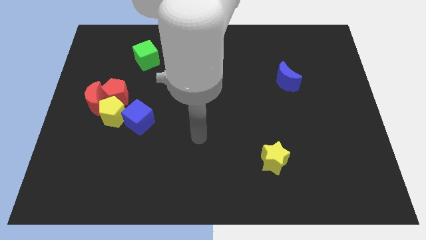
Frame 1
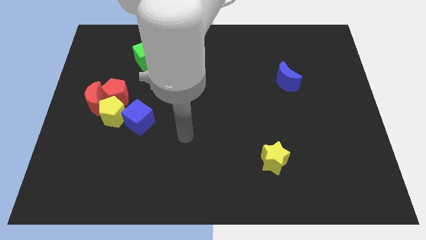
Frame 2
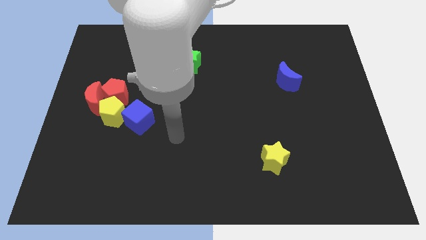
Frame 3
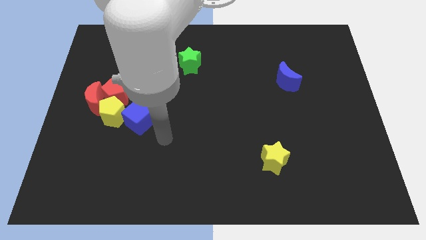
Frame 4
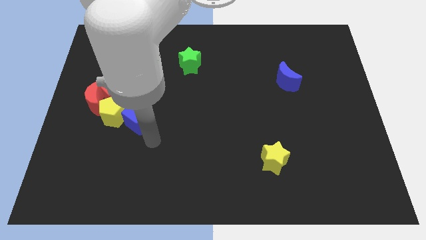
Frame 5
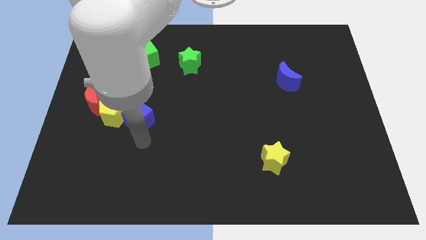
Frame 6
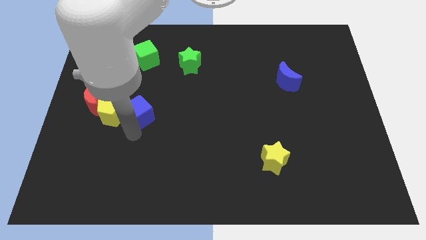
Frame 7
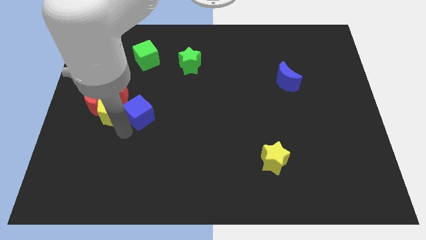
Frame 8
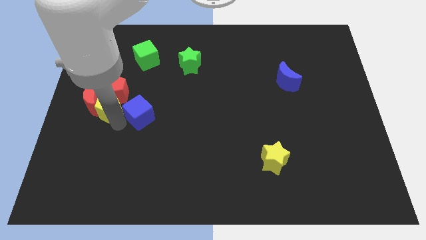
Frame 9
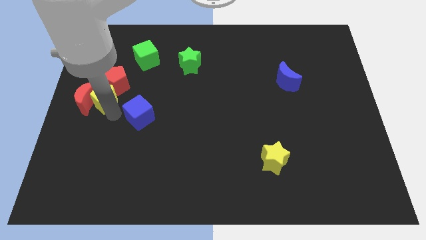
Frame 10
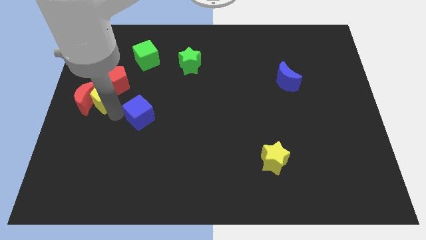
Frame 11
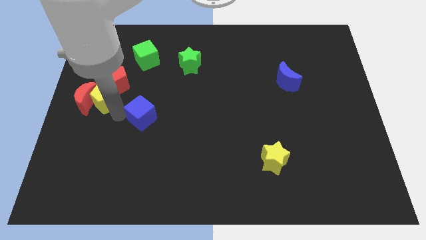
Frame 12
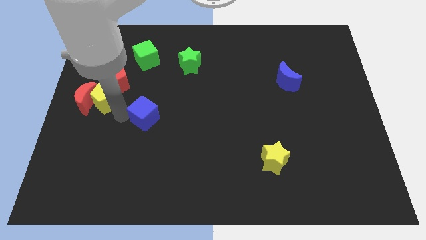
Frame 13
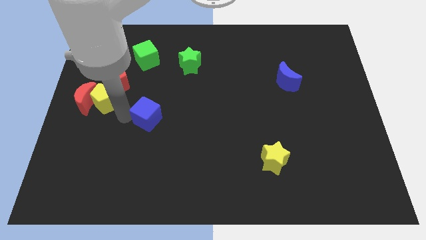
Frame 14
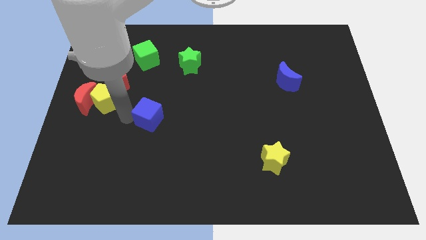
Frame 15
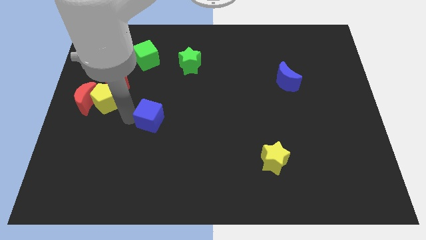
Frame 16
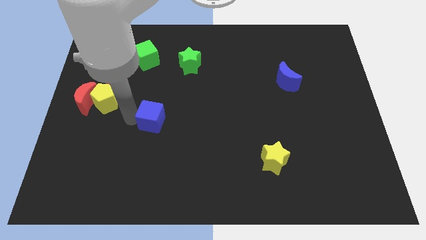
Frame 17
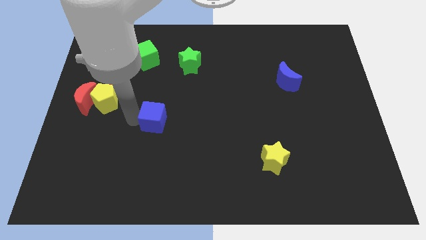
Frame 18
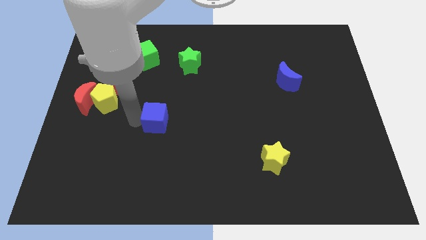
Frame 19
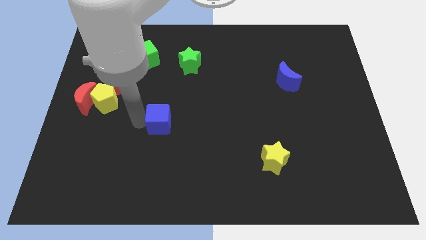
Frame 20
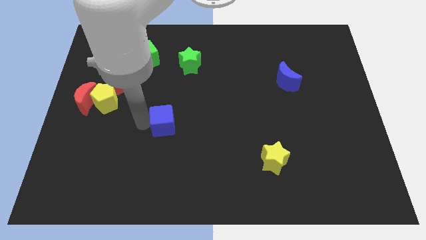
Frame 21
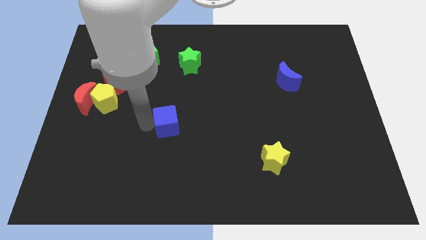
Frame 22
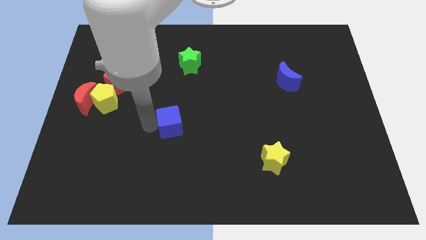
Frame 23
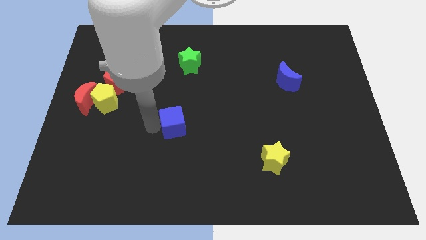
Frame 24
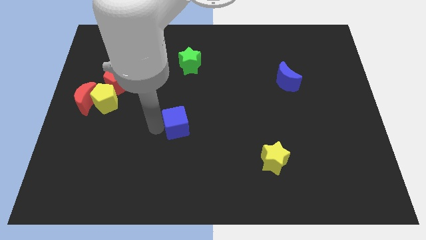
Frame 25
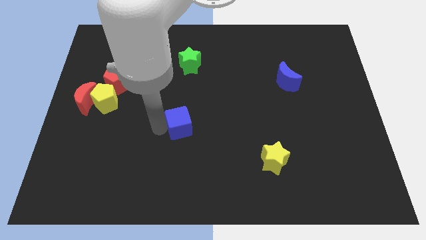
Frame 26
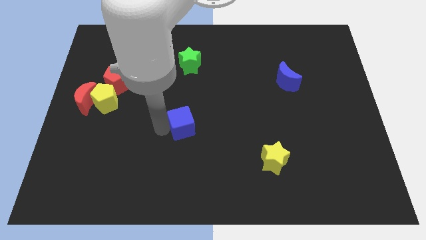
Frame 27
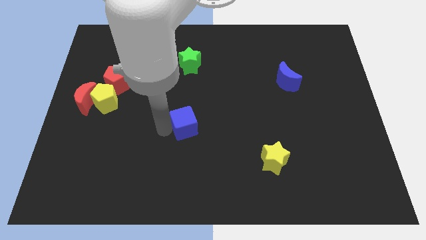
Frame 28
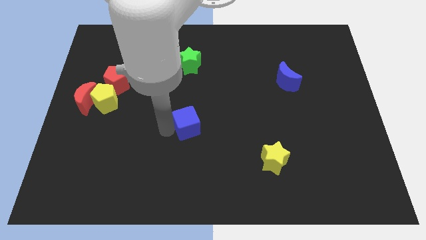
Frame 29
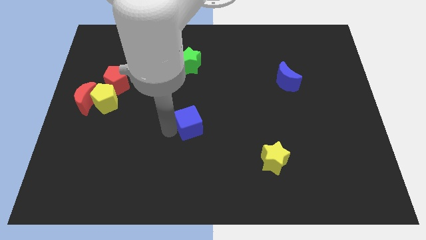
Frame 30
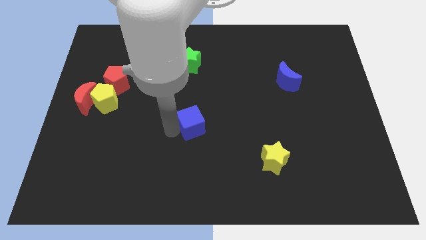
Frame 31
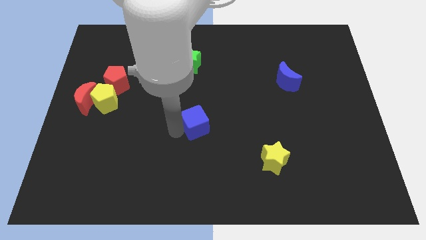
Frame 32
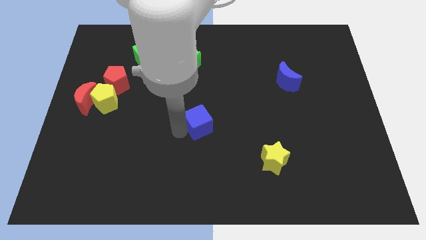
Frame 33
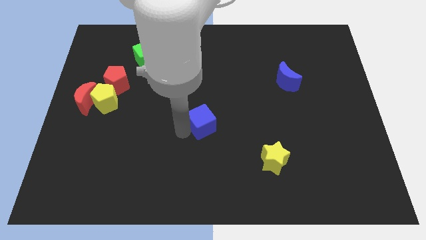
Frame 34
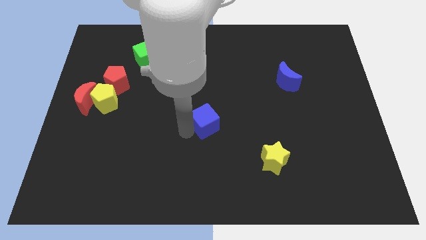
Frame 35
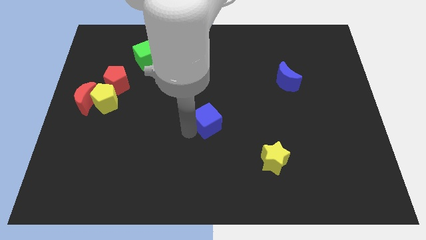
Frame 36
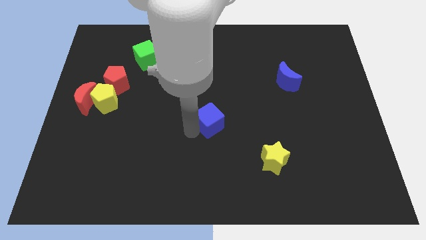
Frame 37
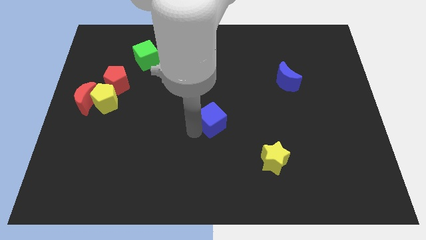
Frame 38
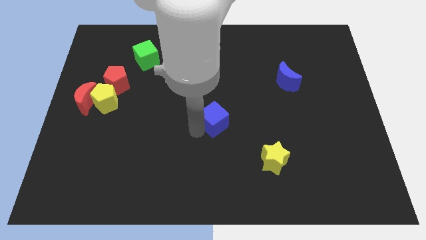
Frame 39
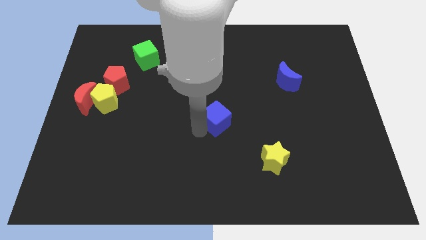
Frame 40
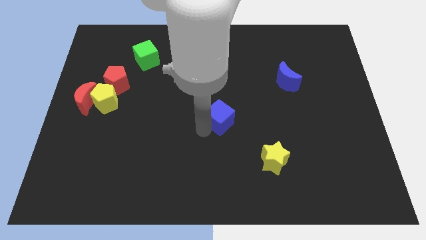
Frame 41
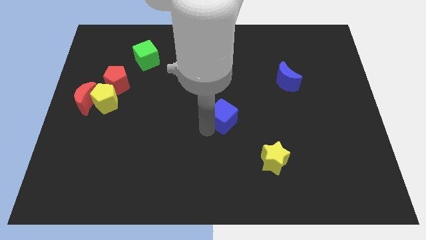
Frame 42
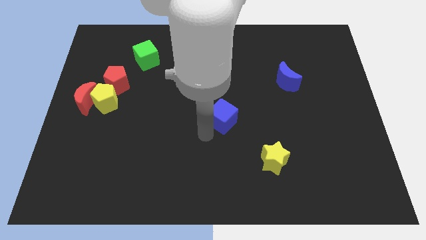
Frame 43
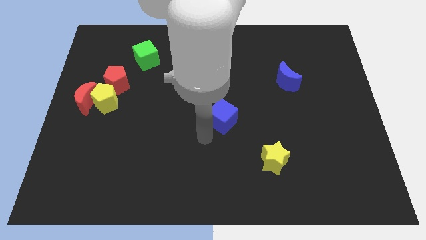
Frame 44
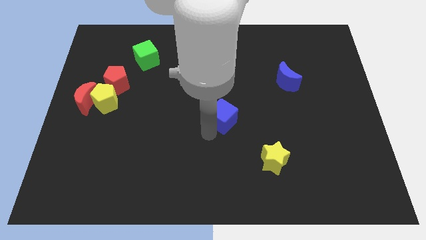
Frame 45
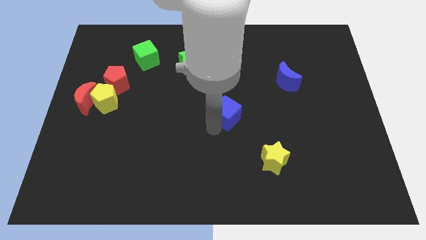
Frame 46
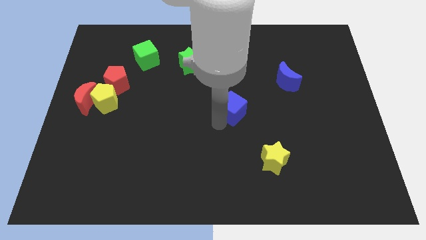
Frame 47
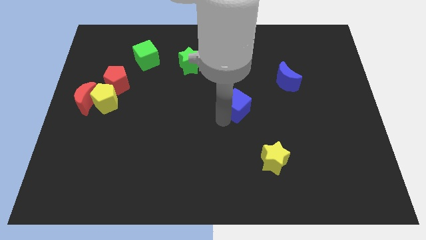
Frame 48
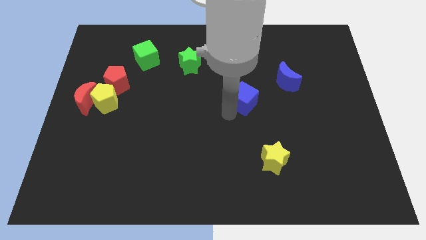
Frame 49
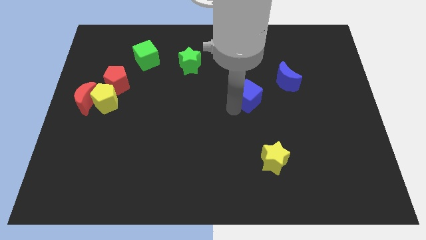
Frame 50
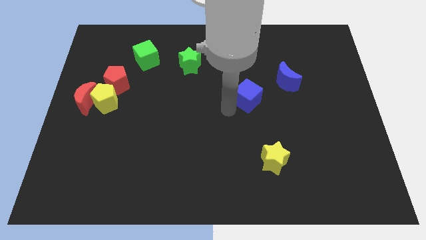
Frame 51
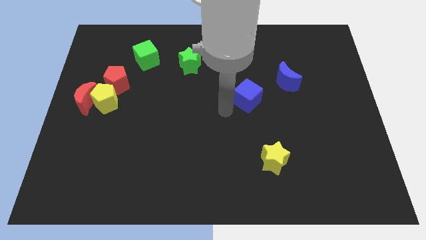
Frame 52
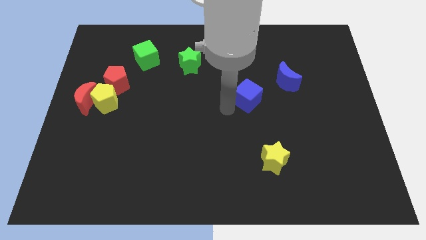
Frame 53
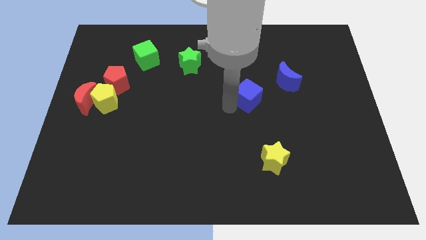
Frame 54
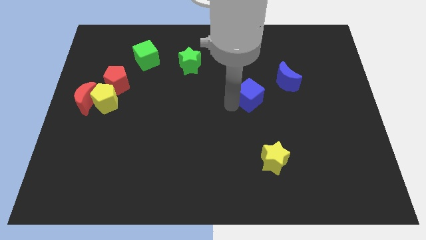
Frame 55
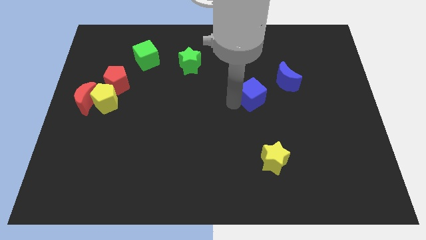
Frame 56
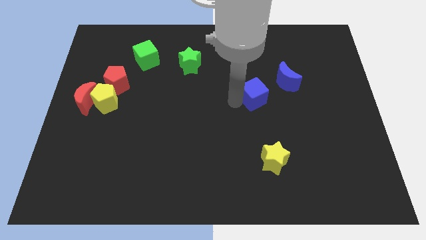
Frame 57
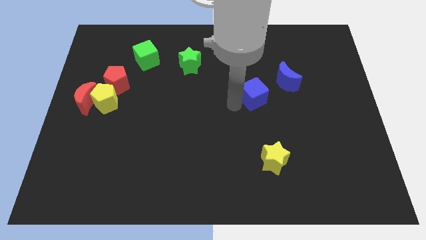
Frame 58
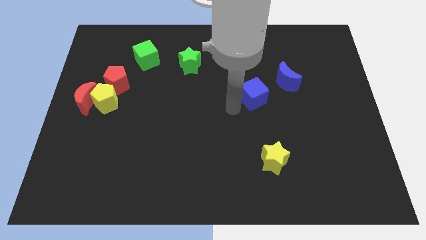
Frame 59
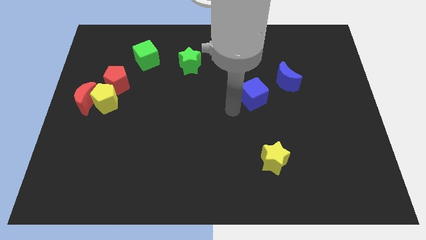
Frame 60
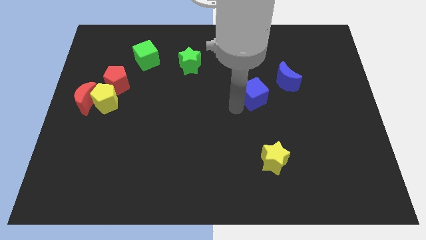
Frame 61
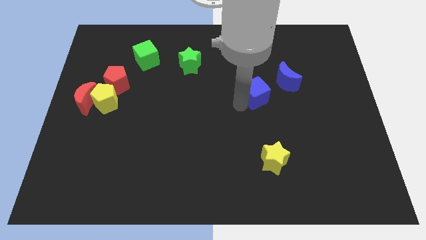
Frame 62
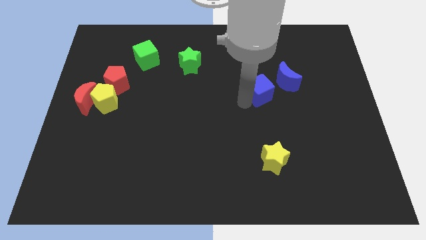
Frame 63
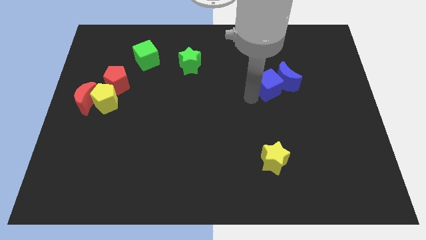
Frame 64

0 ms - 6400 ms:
push the blue cube to the blue moon

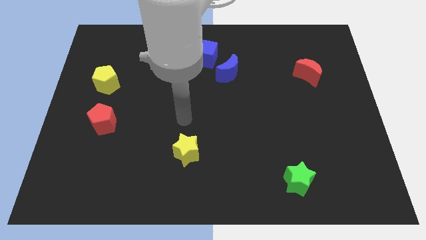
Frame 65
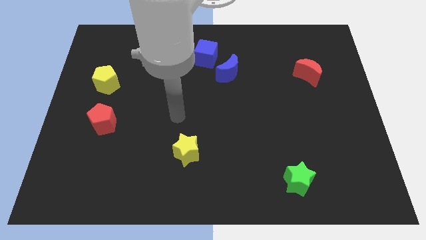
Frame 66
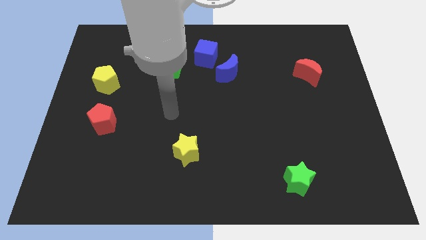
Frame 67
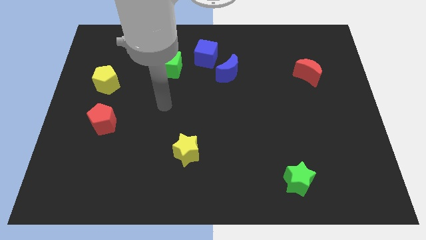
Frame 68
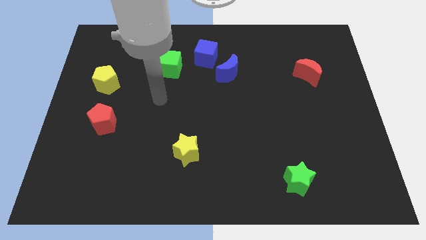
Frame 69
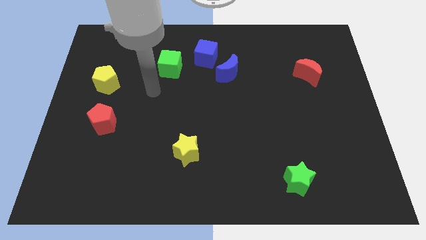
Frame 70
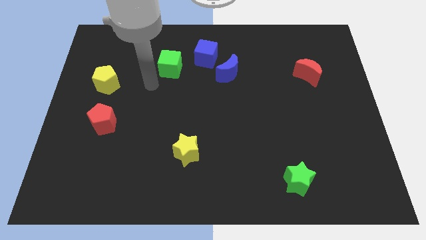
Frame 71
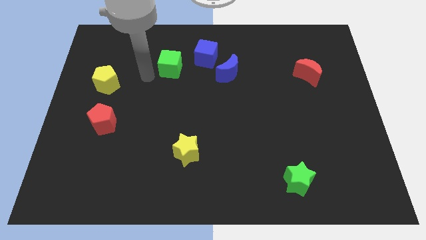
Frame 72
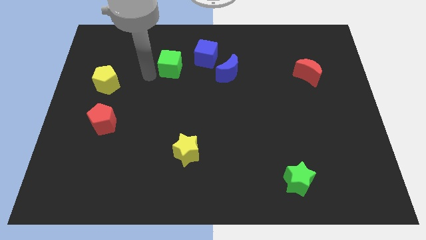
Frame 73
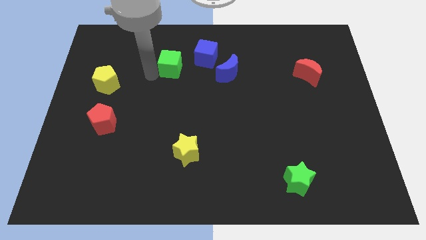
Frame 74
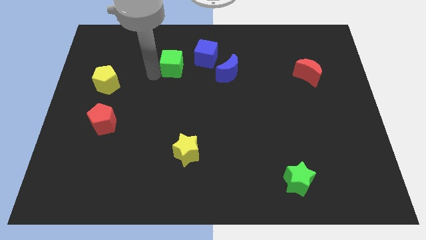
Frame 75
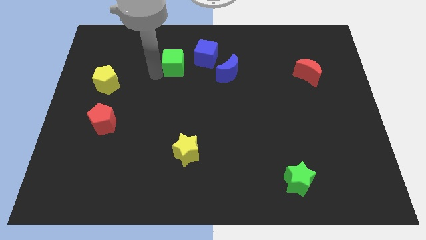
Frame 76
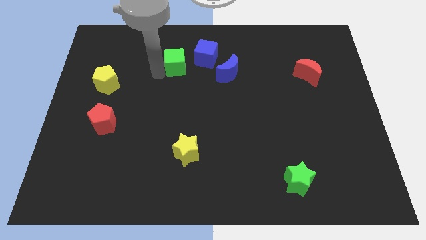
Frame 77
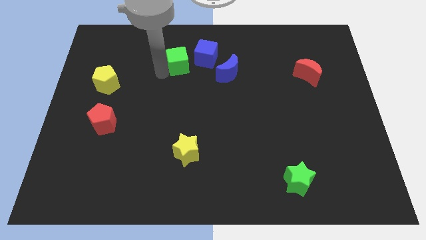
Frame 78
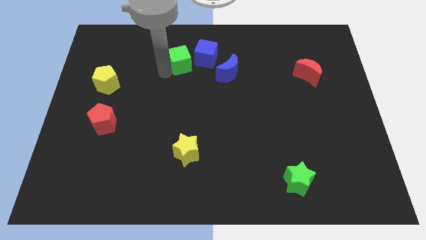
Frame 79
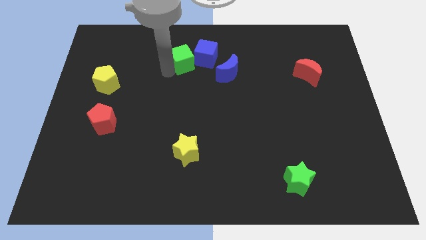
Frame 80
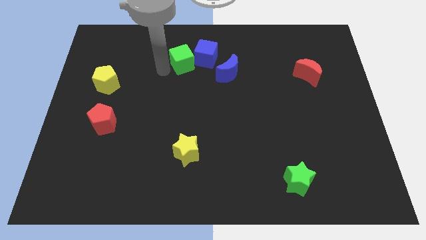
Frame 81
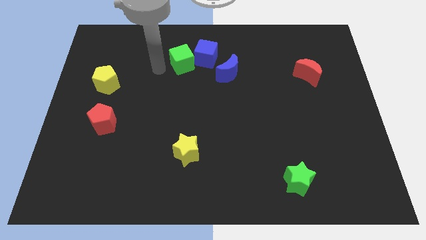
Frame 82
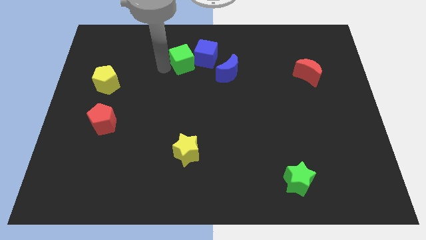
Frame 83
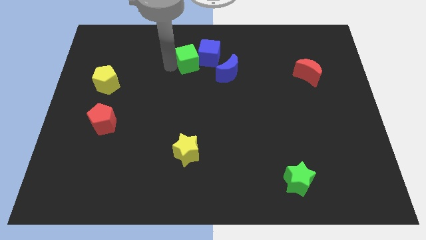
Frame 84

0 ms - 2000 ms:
slide the green cube next to the blue cube
